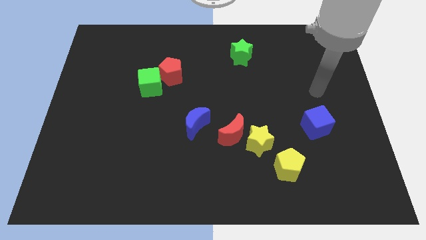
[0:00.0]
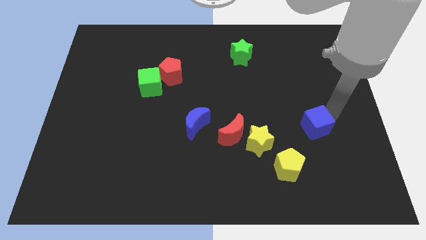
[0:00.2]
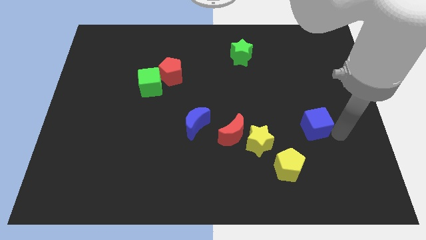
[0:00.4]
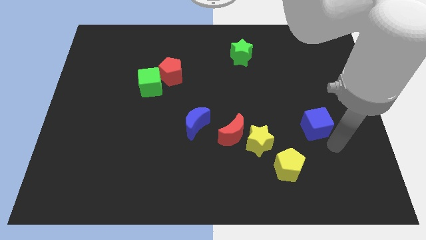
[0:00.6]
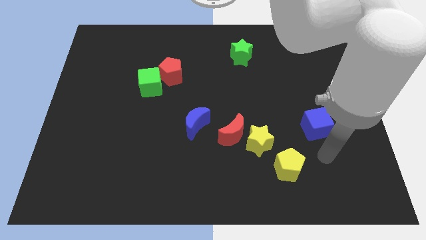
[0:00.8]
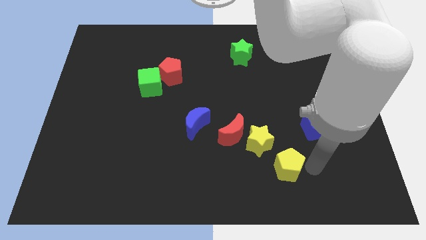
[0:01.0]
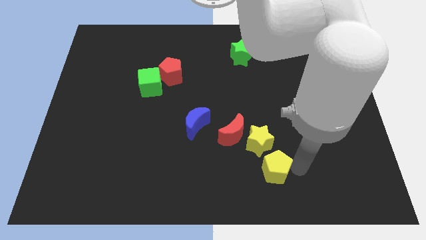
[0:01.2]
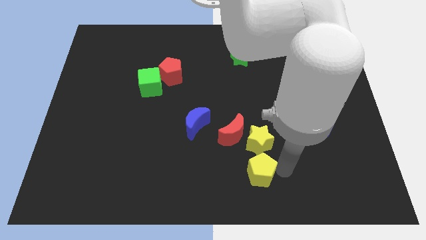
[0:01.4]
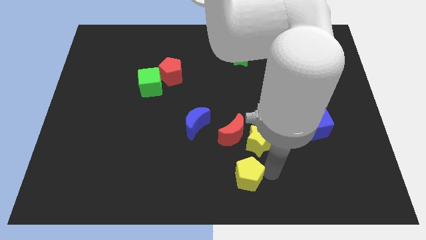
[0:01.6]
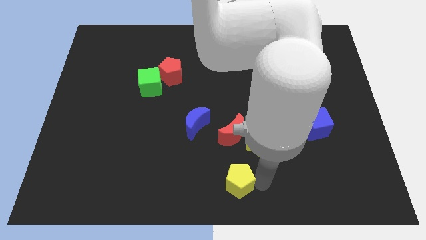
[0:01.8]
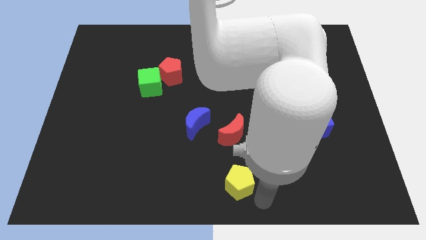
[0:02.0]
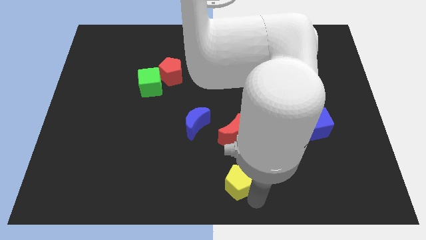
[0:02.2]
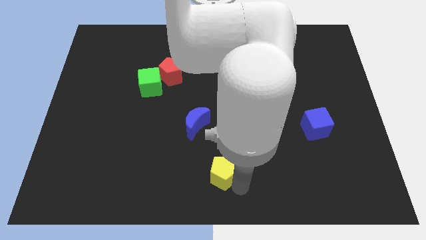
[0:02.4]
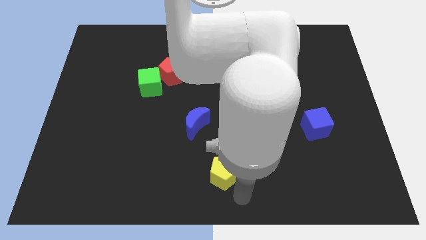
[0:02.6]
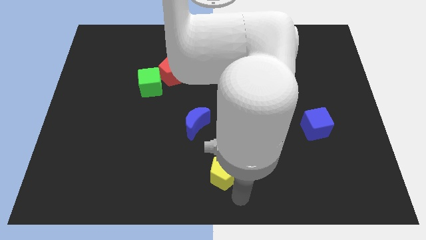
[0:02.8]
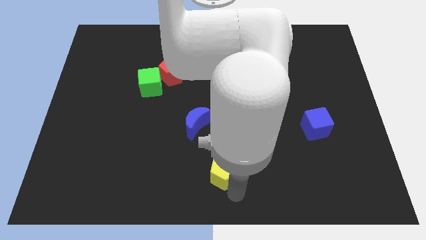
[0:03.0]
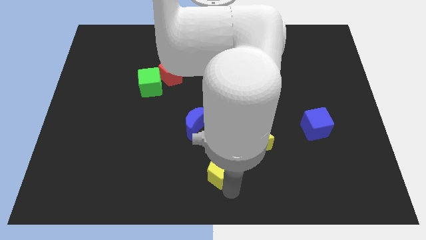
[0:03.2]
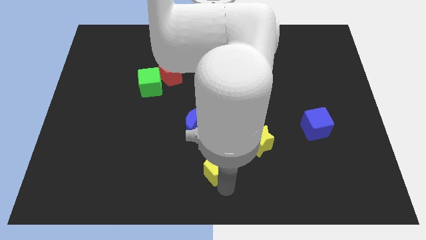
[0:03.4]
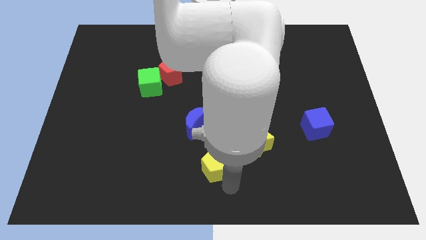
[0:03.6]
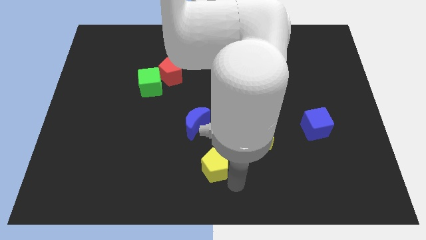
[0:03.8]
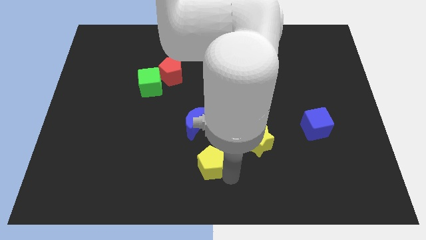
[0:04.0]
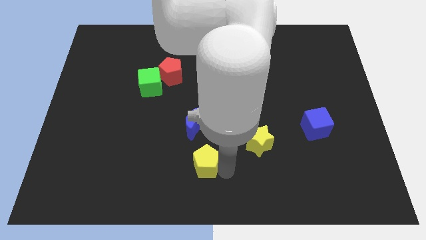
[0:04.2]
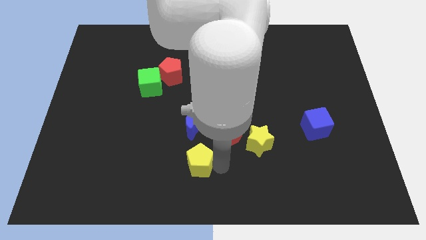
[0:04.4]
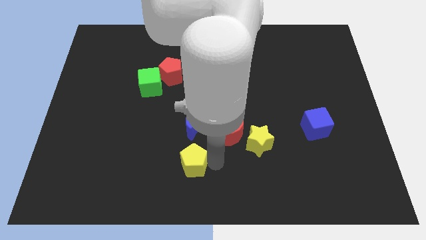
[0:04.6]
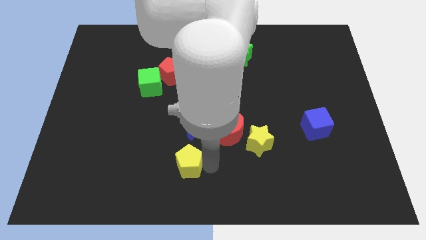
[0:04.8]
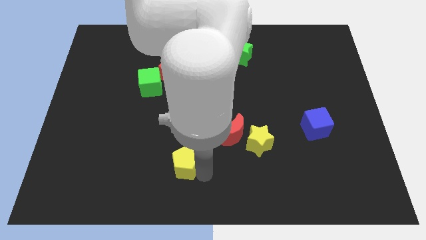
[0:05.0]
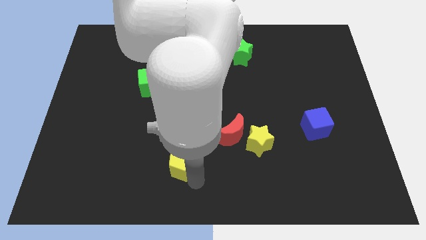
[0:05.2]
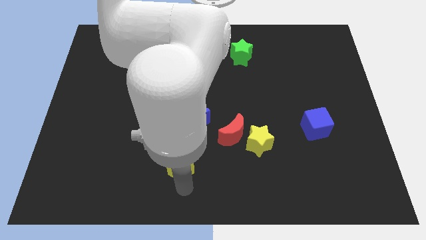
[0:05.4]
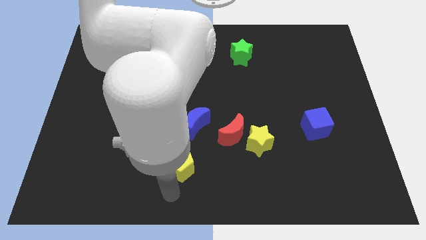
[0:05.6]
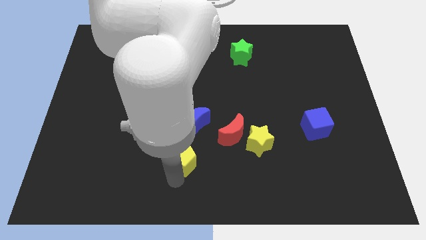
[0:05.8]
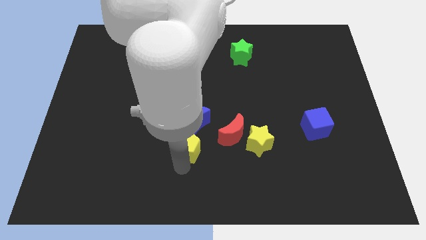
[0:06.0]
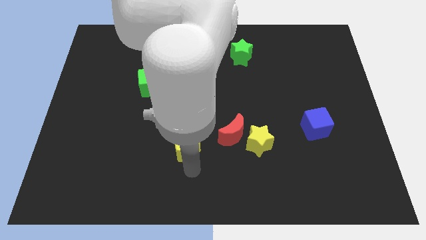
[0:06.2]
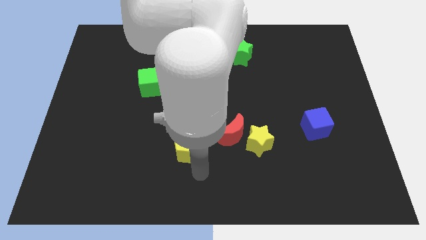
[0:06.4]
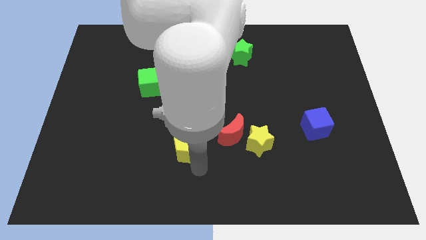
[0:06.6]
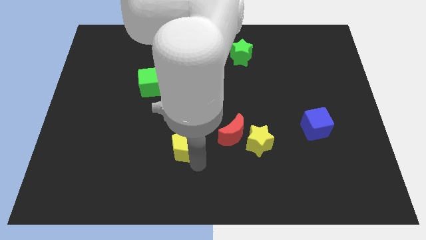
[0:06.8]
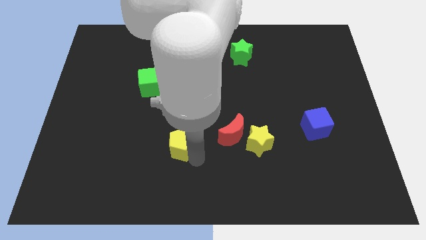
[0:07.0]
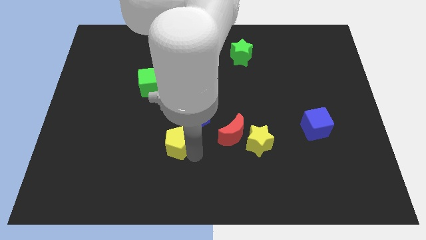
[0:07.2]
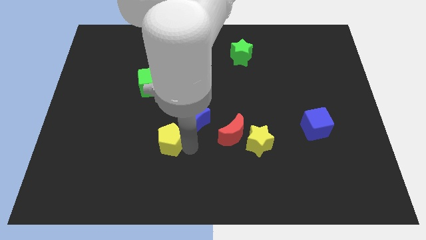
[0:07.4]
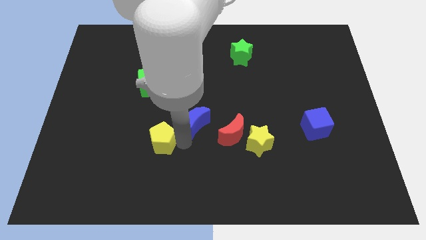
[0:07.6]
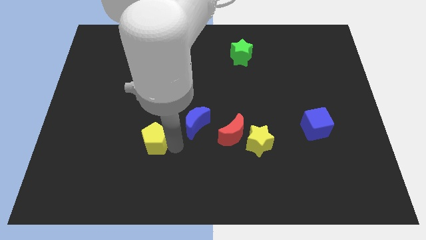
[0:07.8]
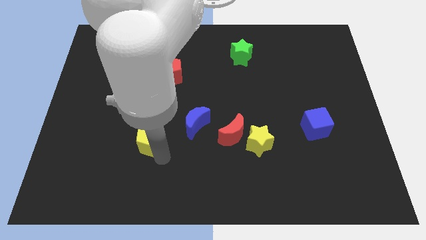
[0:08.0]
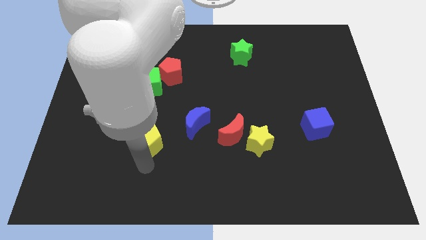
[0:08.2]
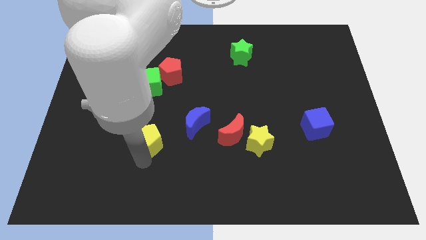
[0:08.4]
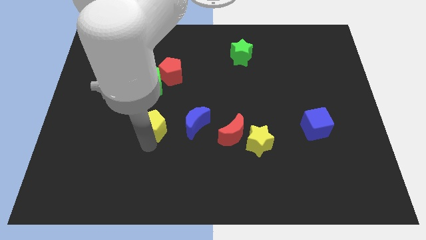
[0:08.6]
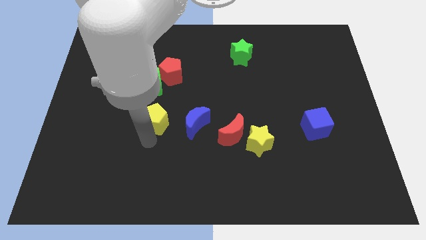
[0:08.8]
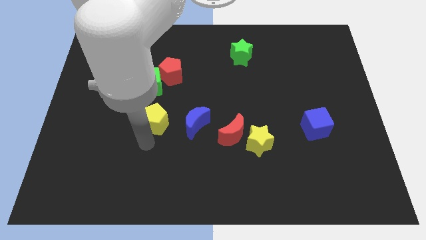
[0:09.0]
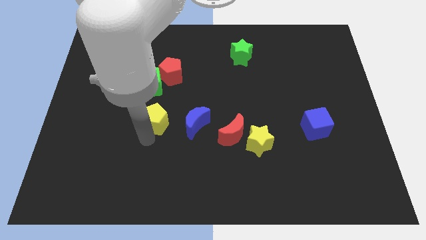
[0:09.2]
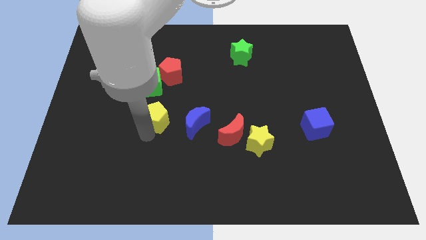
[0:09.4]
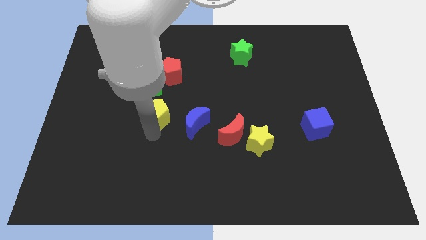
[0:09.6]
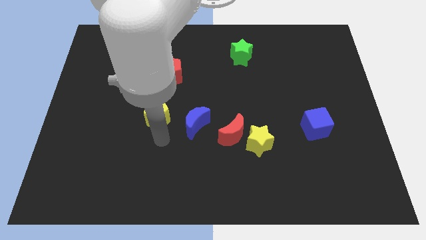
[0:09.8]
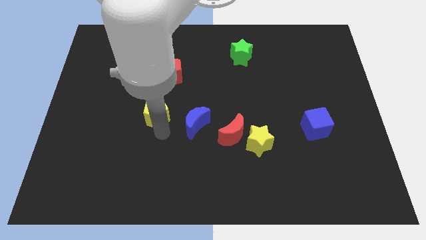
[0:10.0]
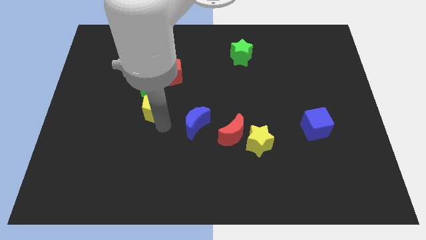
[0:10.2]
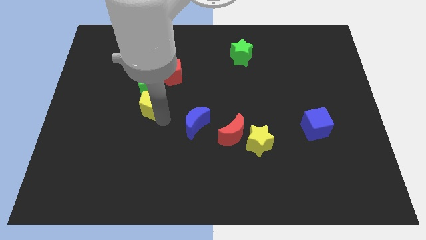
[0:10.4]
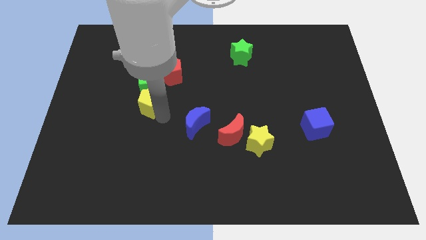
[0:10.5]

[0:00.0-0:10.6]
move the yellow pentagon close to the green cube

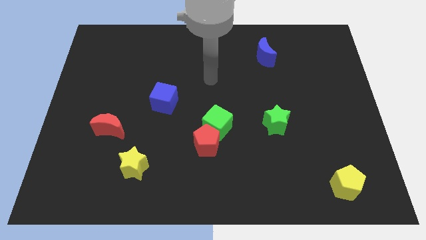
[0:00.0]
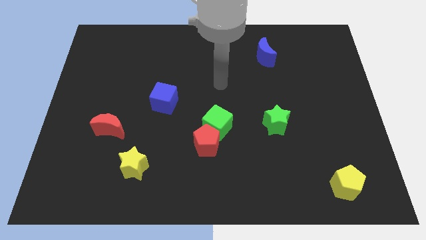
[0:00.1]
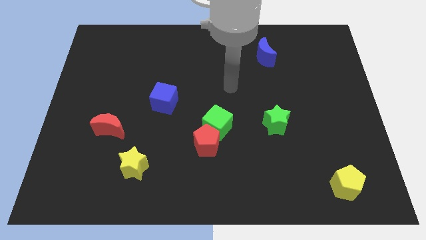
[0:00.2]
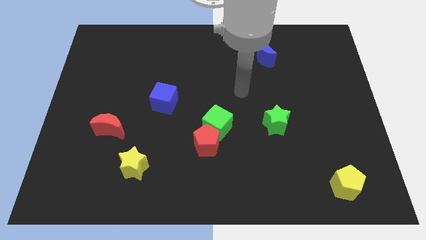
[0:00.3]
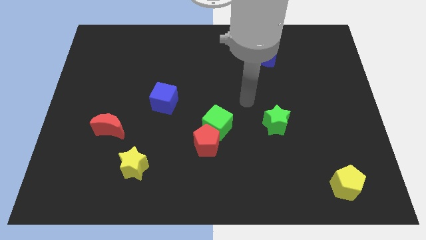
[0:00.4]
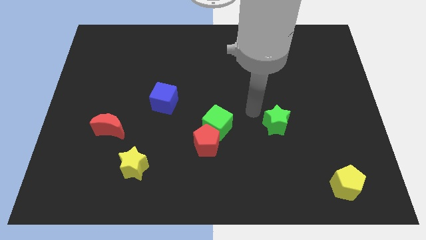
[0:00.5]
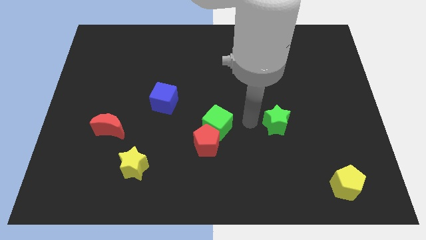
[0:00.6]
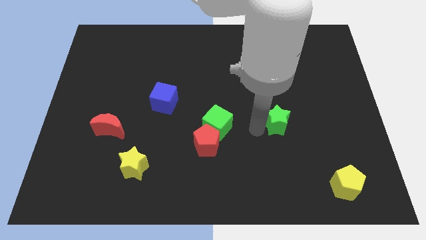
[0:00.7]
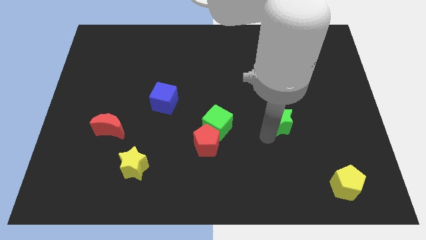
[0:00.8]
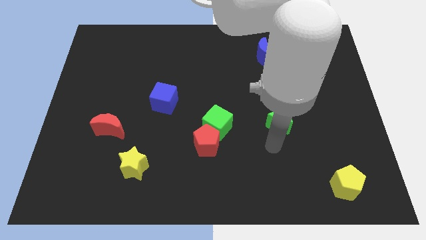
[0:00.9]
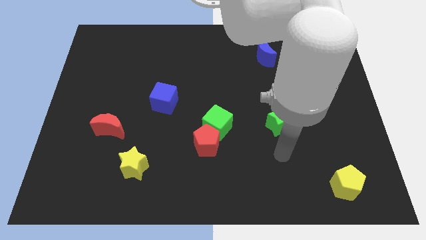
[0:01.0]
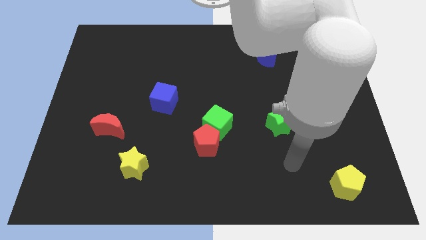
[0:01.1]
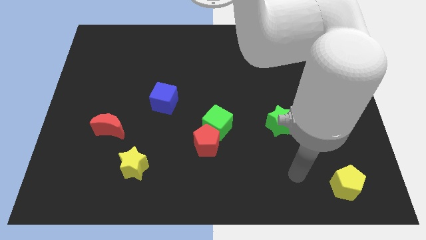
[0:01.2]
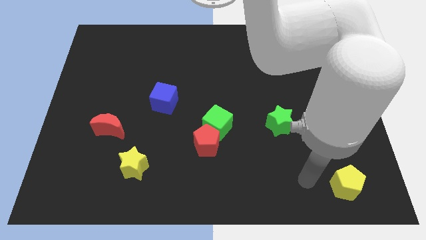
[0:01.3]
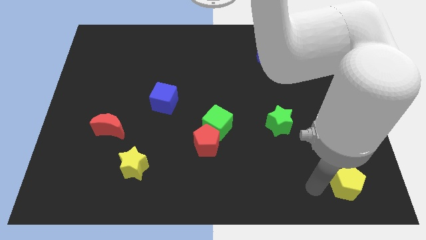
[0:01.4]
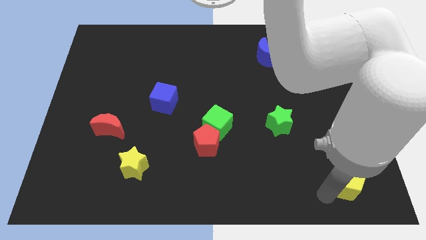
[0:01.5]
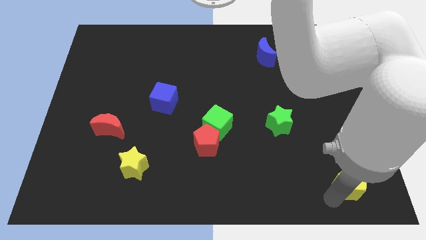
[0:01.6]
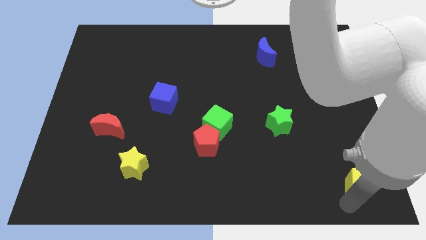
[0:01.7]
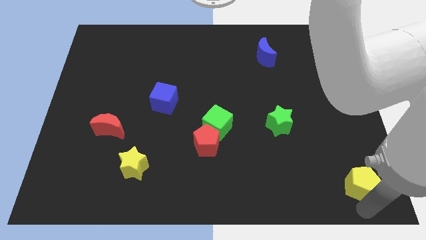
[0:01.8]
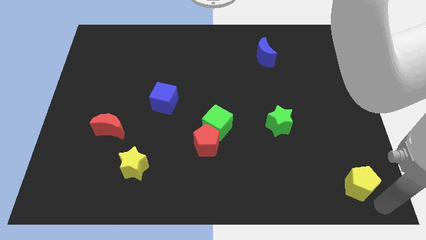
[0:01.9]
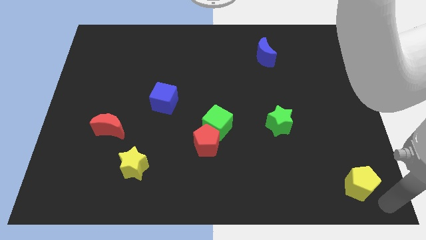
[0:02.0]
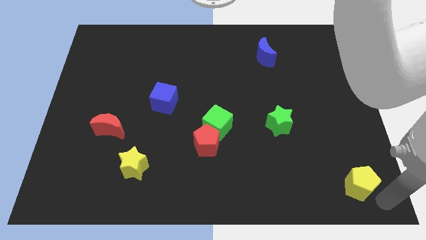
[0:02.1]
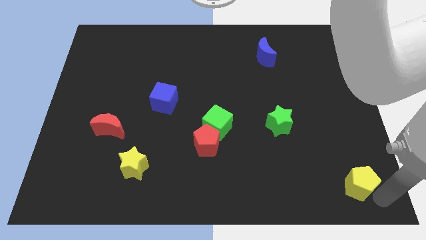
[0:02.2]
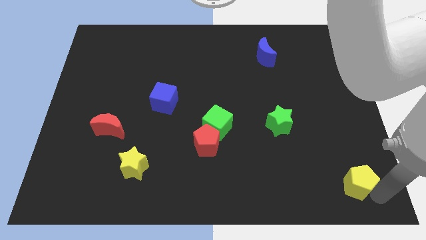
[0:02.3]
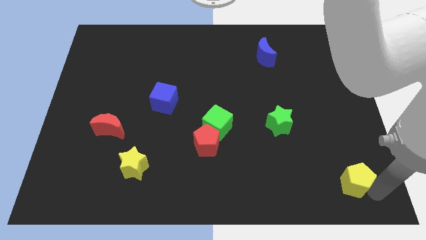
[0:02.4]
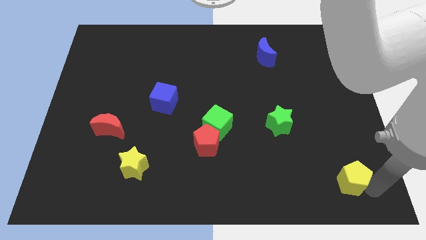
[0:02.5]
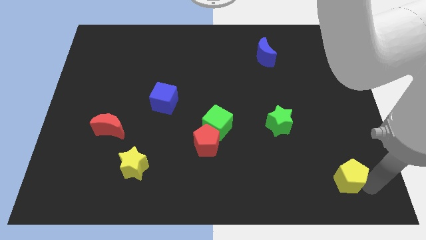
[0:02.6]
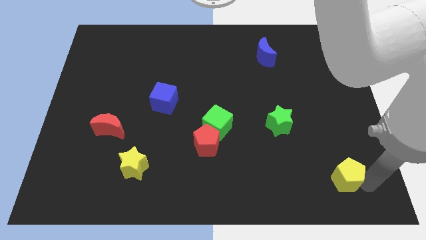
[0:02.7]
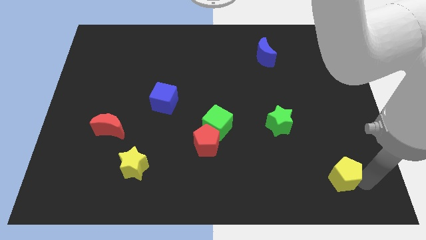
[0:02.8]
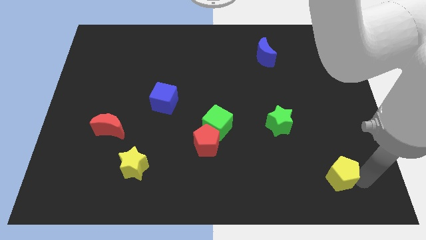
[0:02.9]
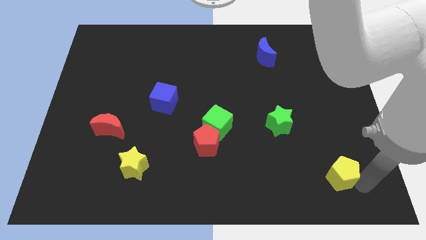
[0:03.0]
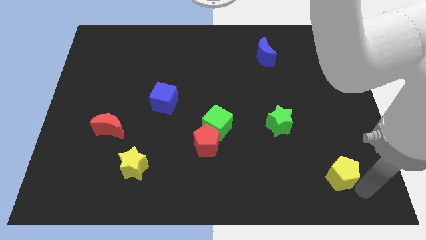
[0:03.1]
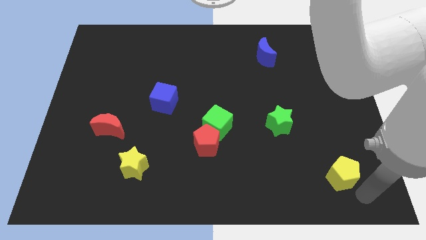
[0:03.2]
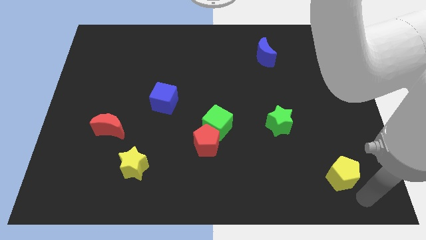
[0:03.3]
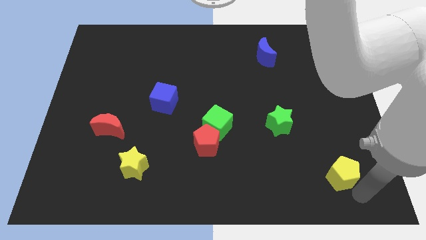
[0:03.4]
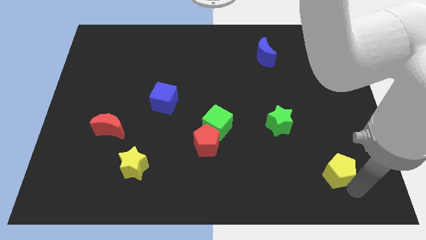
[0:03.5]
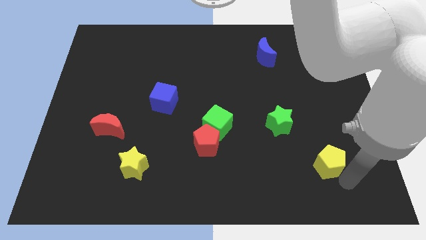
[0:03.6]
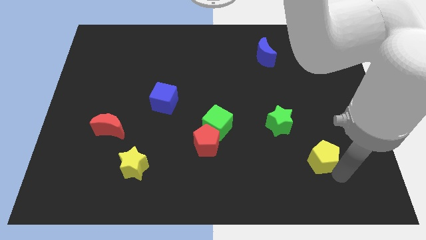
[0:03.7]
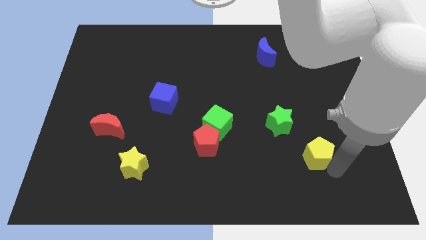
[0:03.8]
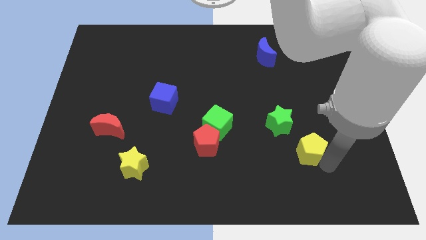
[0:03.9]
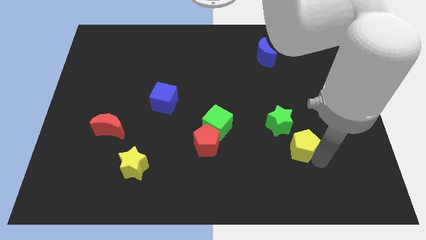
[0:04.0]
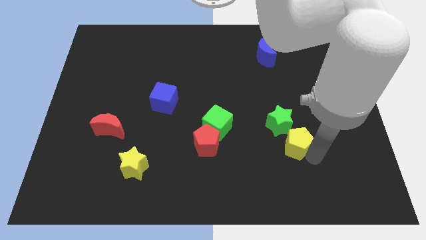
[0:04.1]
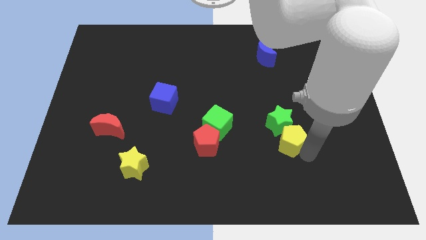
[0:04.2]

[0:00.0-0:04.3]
slide the yellow pentagon next to the green star
